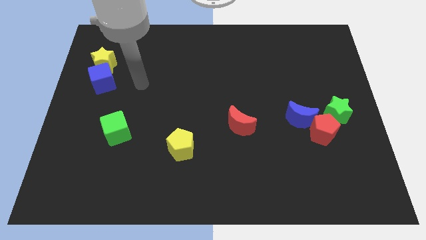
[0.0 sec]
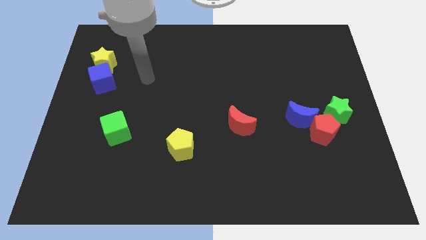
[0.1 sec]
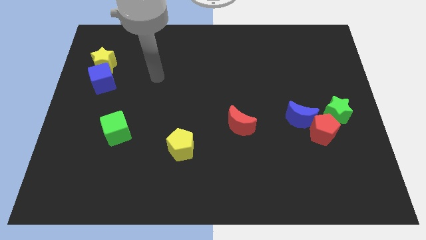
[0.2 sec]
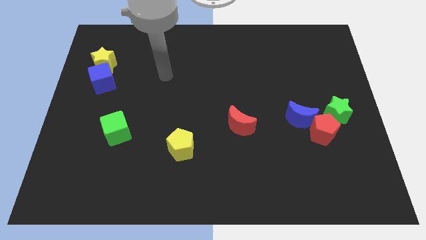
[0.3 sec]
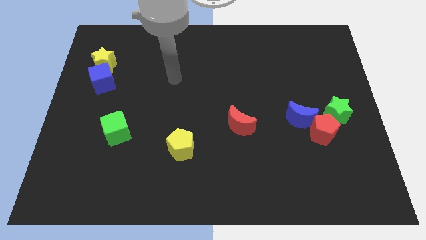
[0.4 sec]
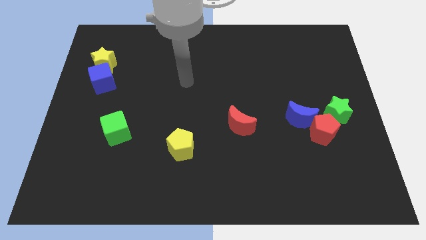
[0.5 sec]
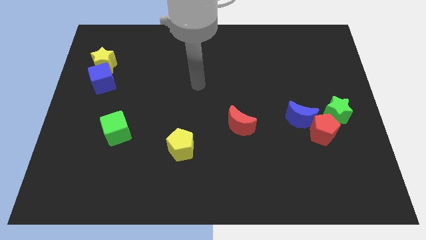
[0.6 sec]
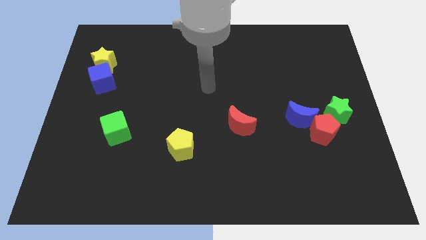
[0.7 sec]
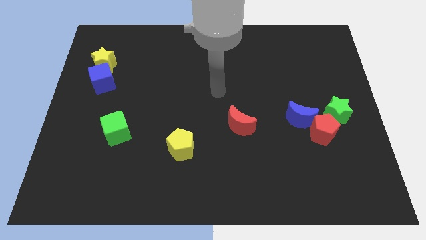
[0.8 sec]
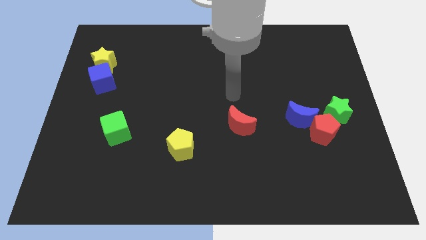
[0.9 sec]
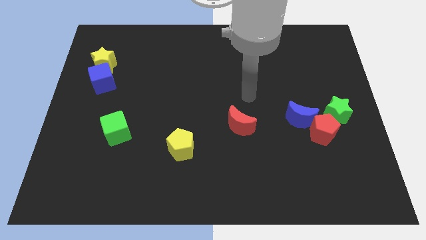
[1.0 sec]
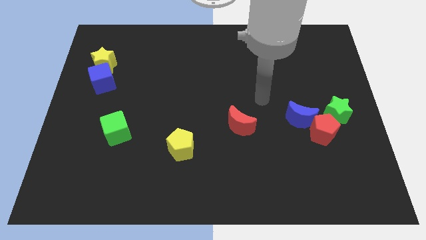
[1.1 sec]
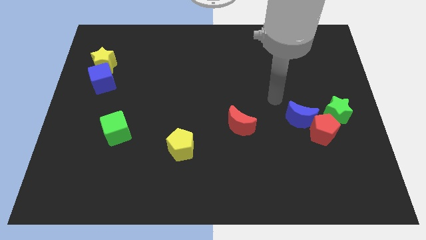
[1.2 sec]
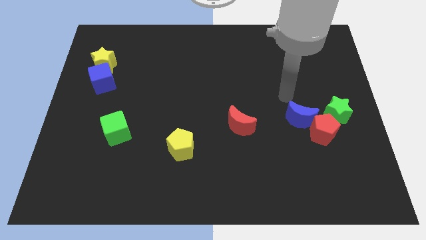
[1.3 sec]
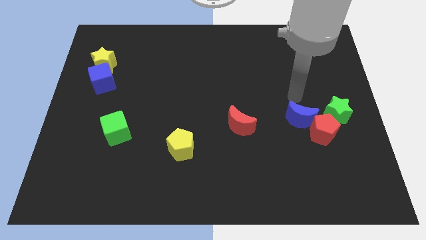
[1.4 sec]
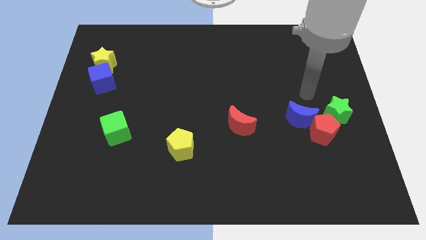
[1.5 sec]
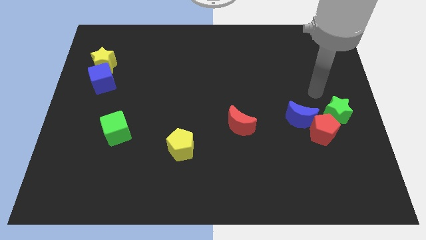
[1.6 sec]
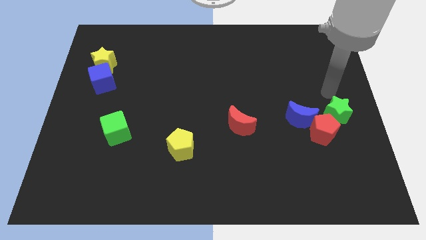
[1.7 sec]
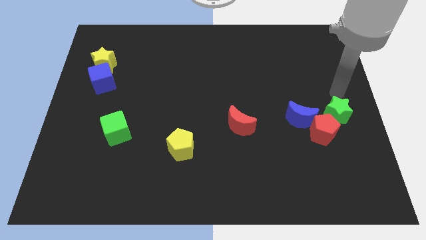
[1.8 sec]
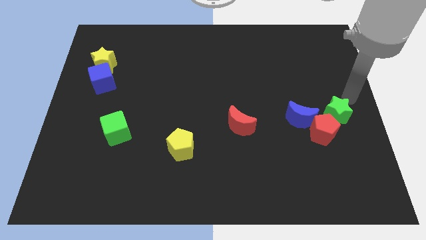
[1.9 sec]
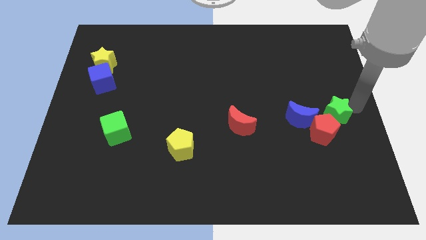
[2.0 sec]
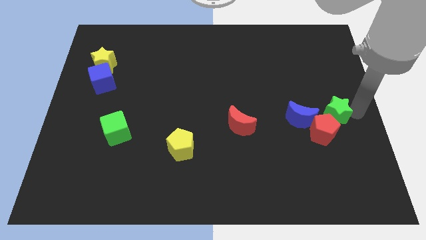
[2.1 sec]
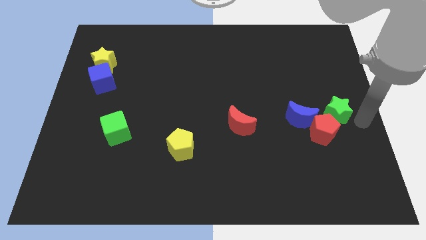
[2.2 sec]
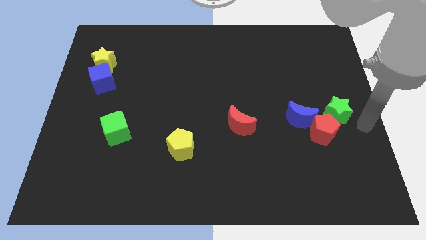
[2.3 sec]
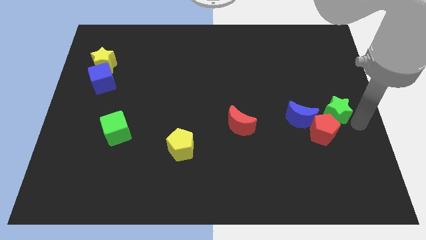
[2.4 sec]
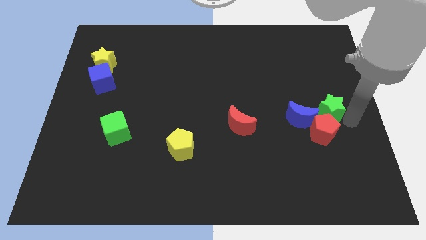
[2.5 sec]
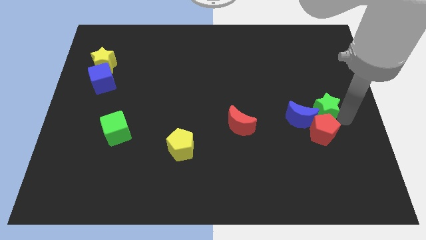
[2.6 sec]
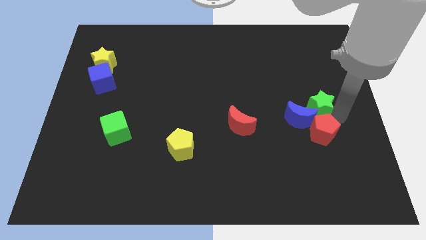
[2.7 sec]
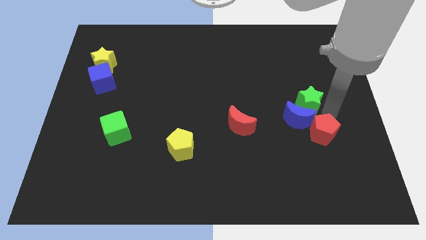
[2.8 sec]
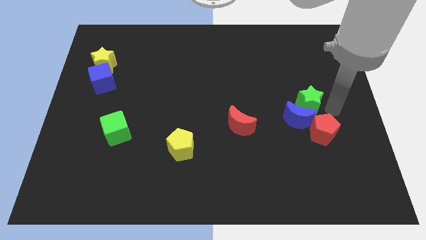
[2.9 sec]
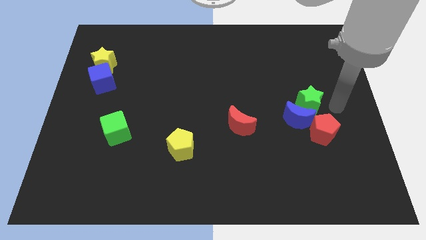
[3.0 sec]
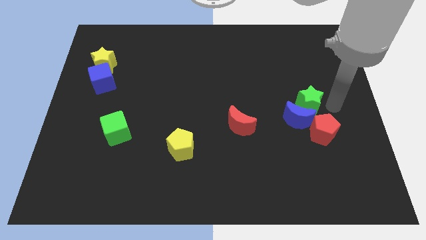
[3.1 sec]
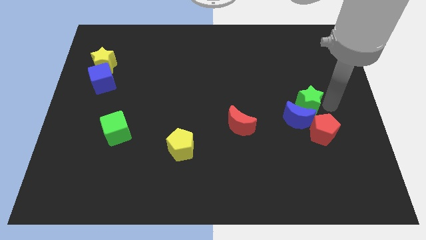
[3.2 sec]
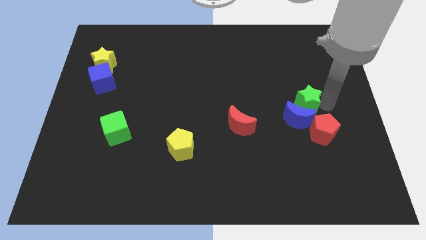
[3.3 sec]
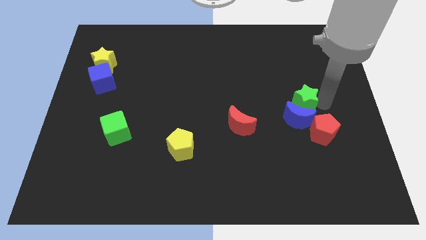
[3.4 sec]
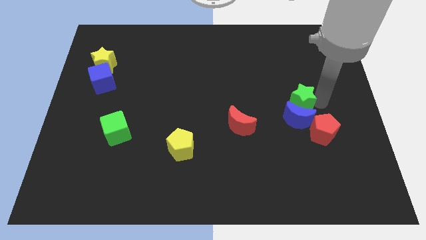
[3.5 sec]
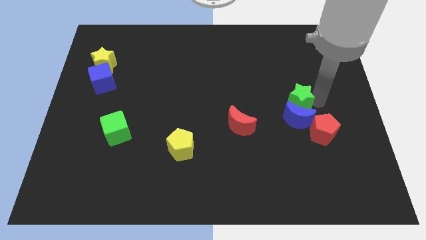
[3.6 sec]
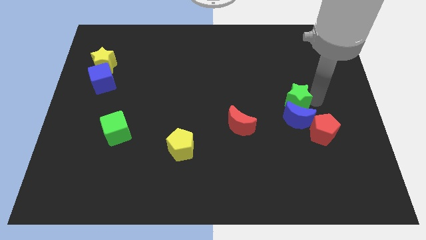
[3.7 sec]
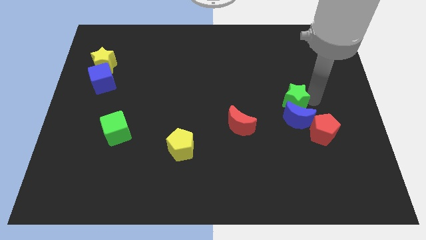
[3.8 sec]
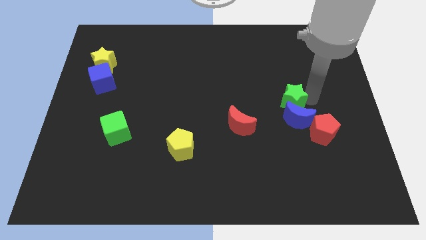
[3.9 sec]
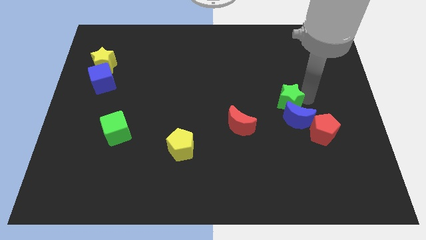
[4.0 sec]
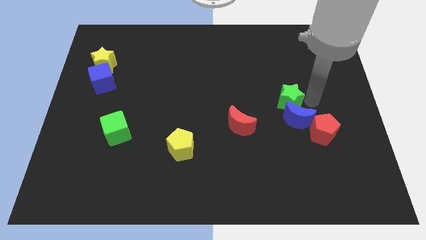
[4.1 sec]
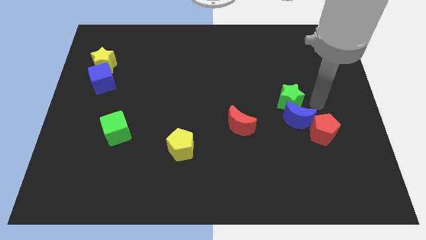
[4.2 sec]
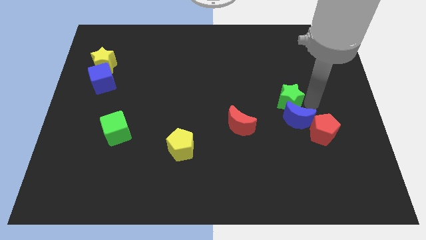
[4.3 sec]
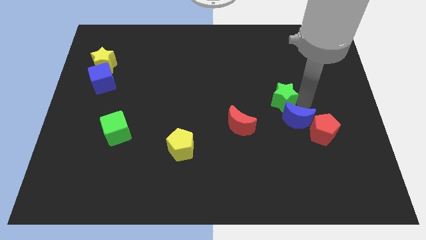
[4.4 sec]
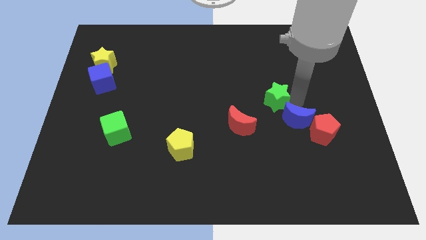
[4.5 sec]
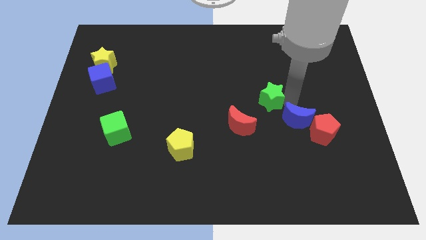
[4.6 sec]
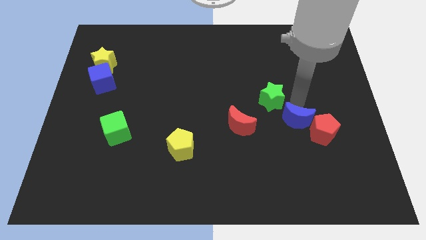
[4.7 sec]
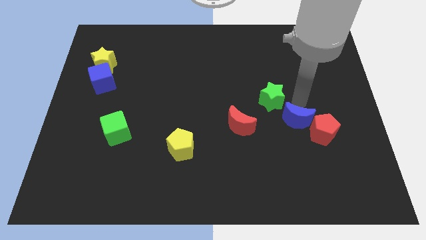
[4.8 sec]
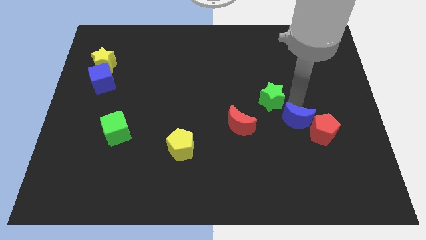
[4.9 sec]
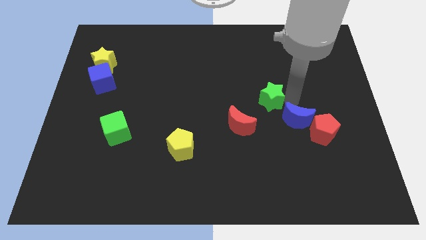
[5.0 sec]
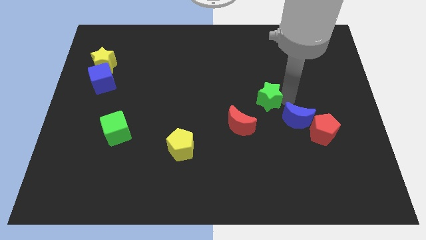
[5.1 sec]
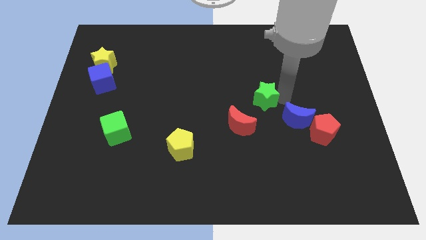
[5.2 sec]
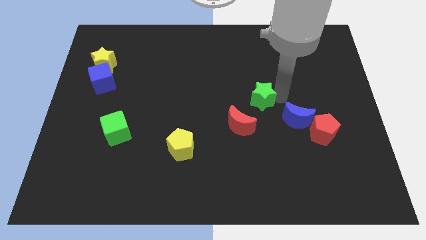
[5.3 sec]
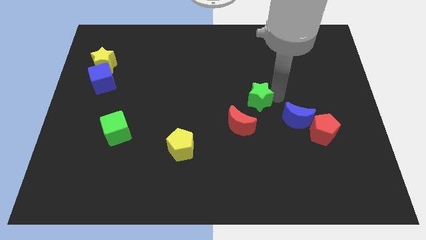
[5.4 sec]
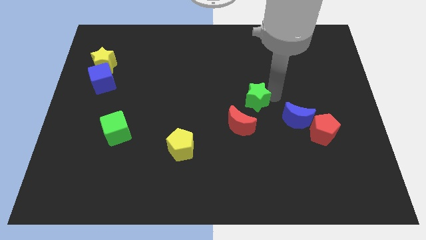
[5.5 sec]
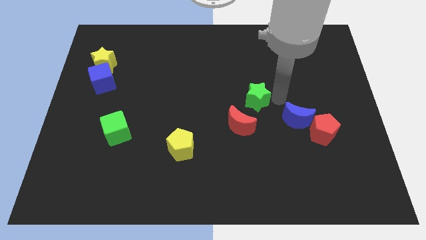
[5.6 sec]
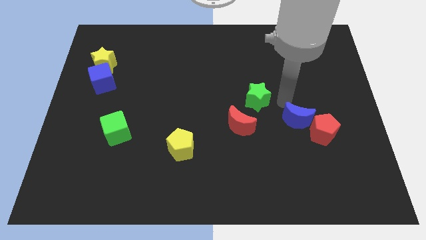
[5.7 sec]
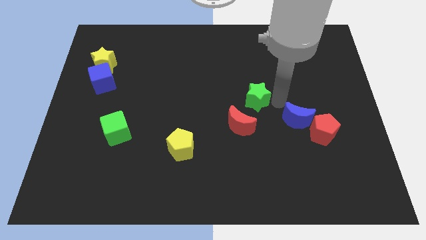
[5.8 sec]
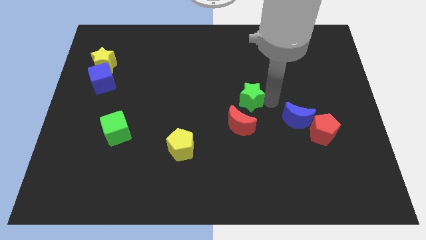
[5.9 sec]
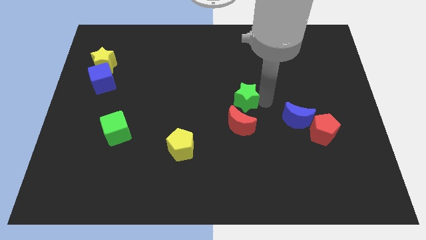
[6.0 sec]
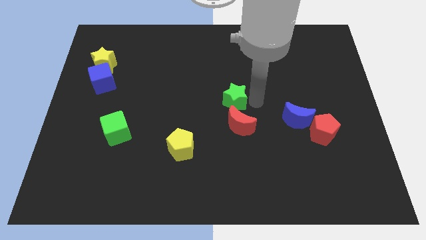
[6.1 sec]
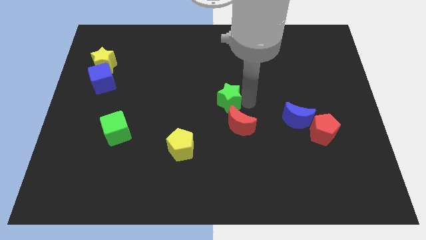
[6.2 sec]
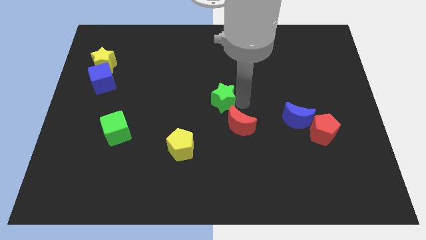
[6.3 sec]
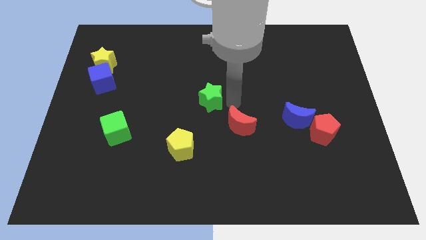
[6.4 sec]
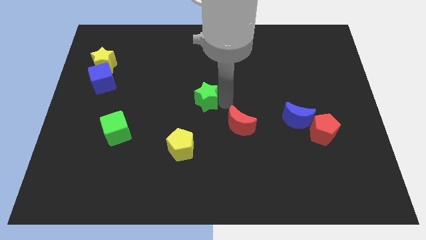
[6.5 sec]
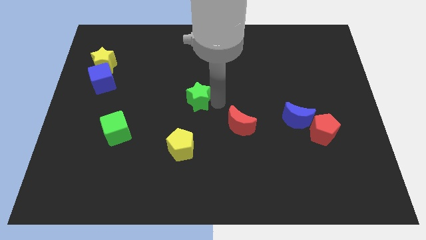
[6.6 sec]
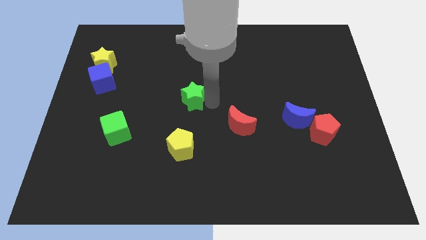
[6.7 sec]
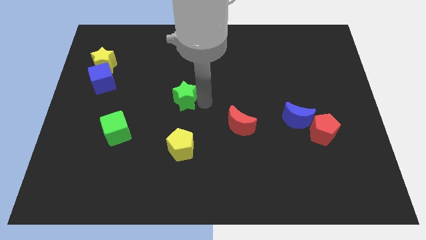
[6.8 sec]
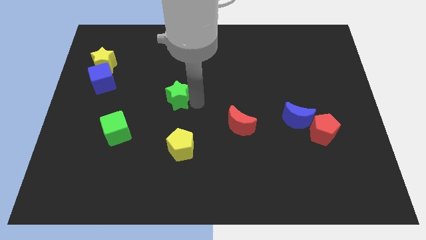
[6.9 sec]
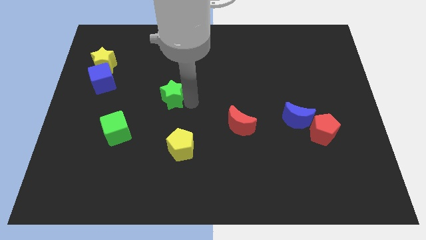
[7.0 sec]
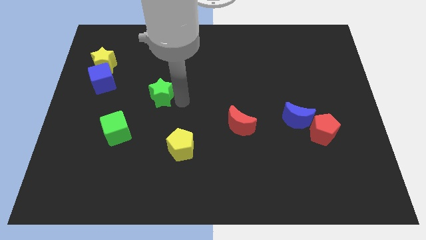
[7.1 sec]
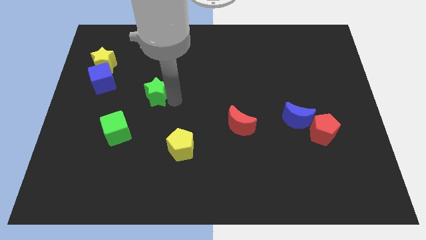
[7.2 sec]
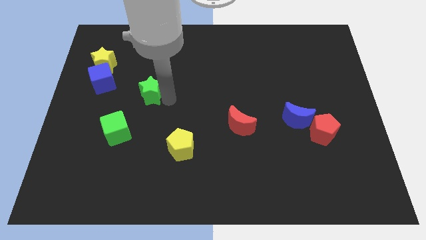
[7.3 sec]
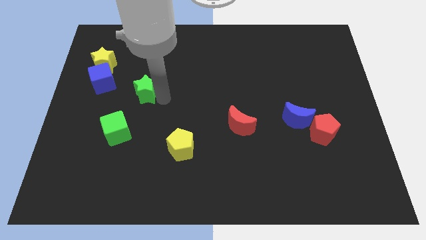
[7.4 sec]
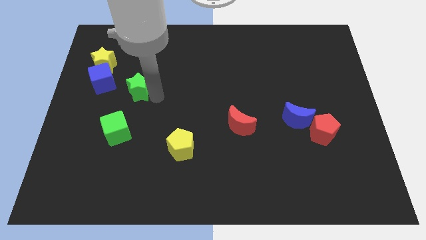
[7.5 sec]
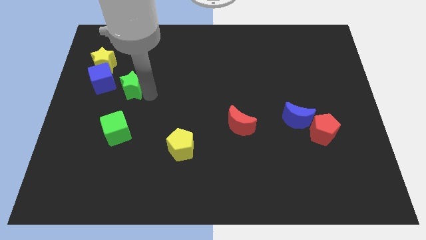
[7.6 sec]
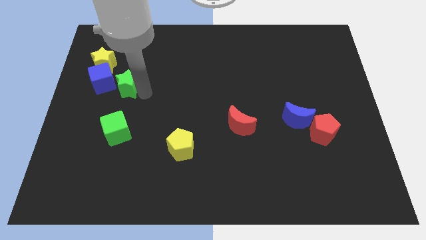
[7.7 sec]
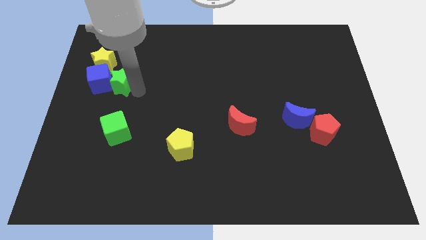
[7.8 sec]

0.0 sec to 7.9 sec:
move the green star towards the blue cube
